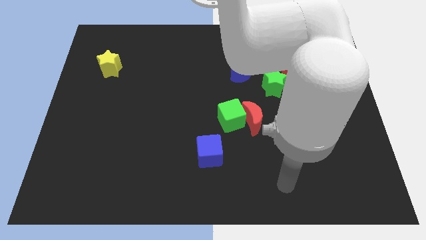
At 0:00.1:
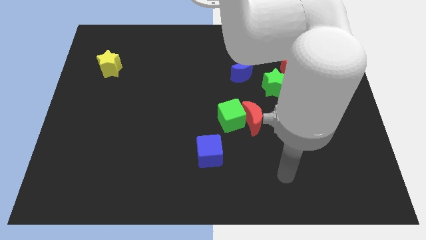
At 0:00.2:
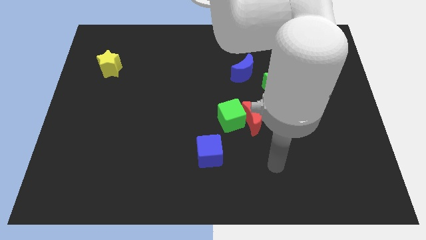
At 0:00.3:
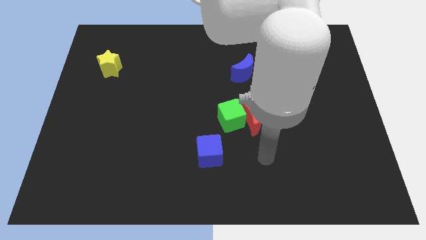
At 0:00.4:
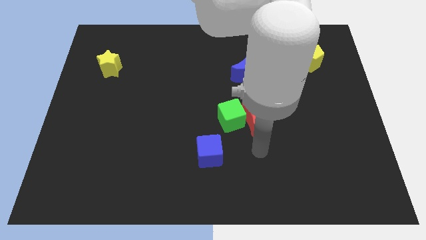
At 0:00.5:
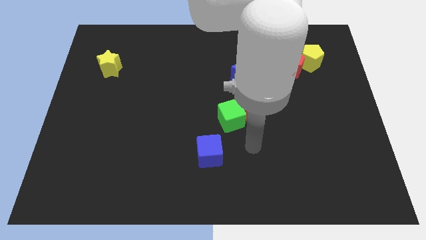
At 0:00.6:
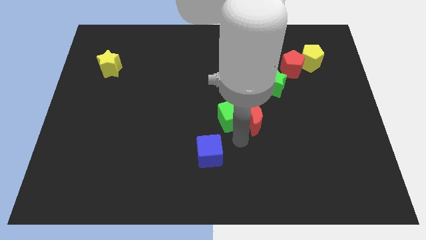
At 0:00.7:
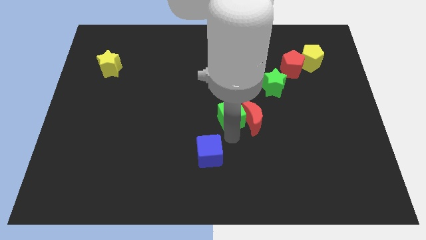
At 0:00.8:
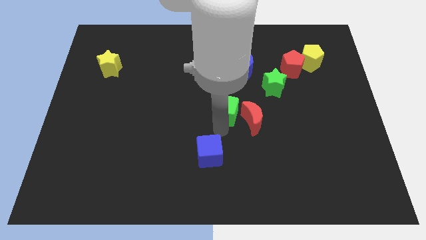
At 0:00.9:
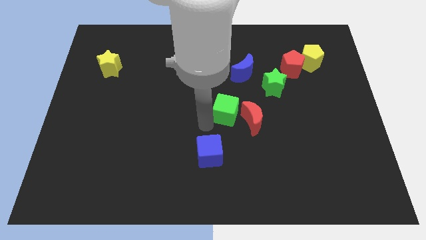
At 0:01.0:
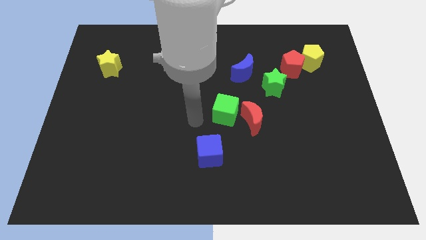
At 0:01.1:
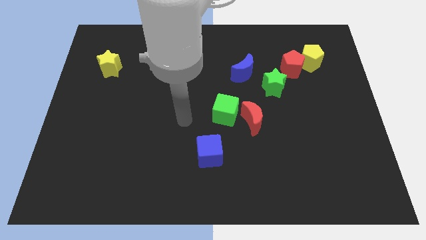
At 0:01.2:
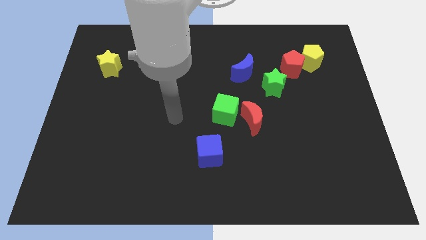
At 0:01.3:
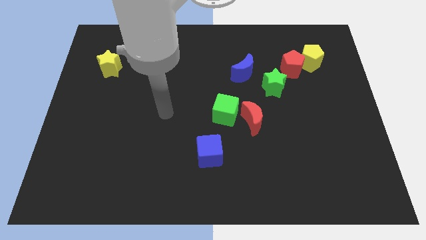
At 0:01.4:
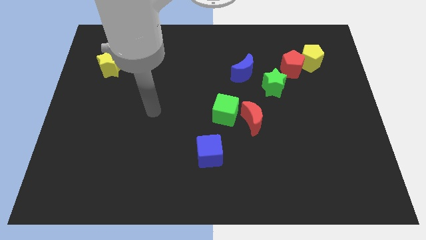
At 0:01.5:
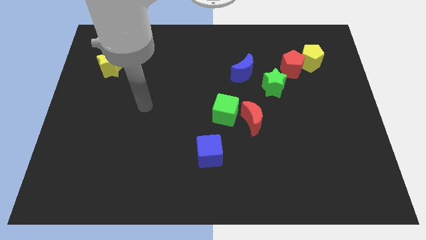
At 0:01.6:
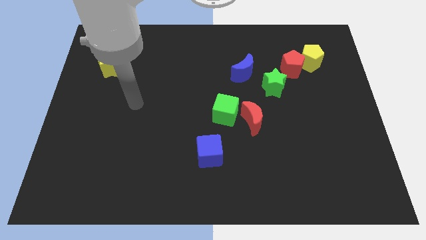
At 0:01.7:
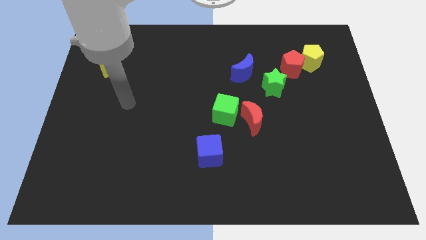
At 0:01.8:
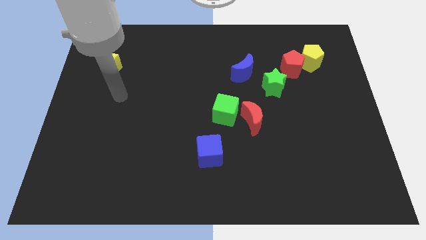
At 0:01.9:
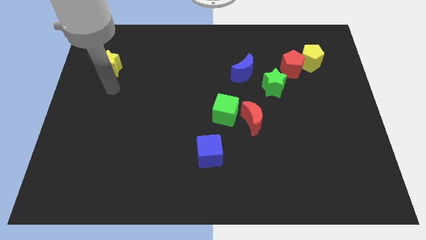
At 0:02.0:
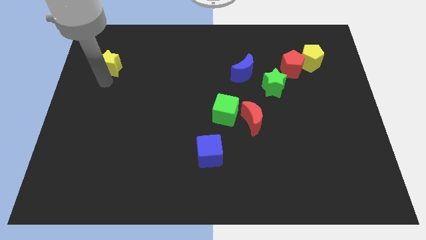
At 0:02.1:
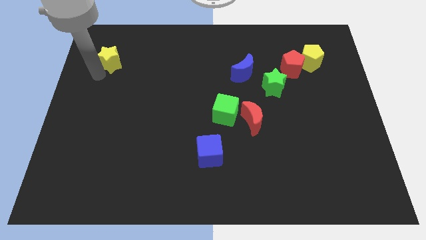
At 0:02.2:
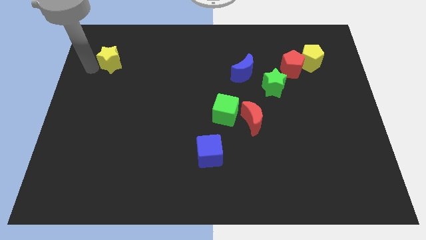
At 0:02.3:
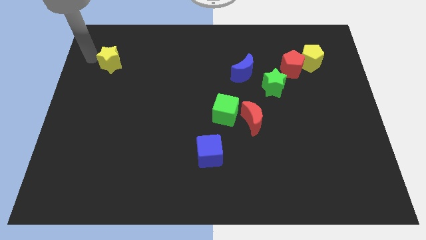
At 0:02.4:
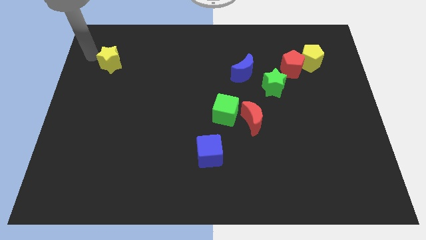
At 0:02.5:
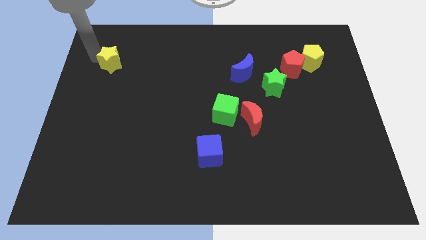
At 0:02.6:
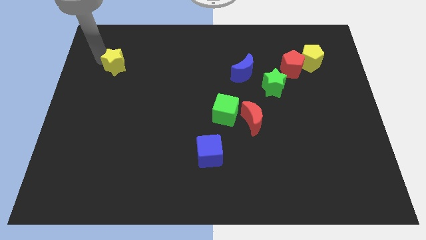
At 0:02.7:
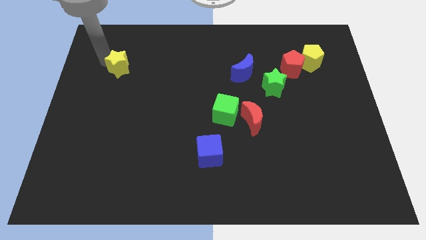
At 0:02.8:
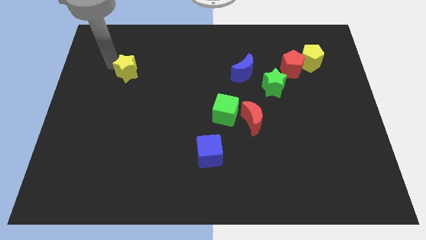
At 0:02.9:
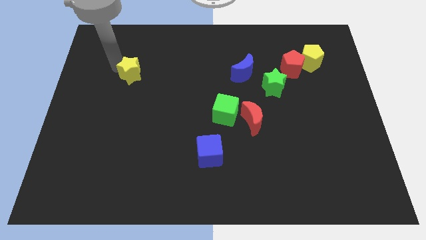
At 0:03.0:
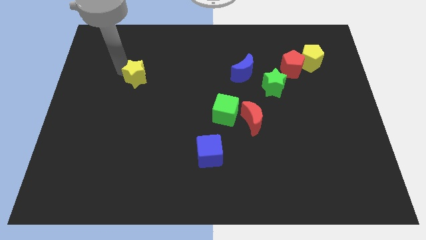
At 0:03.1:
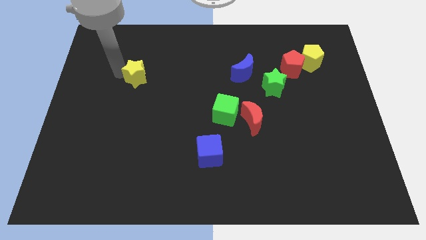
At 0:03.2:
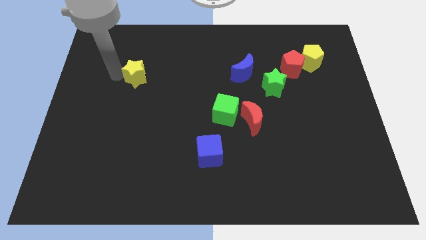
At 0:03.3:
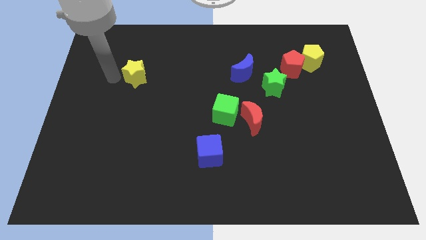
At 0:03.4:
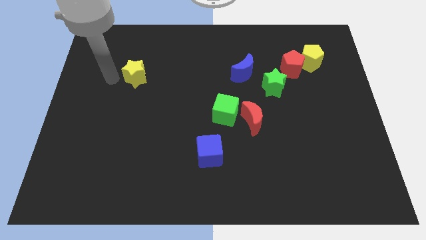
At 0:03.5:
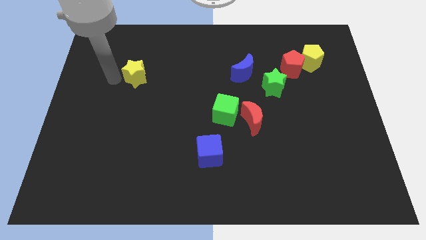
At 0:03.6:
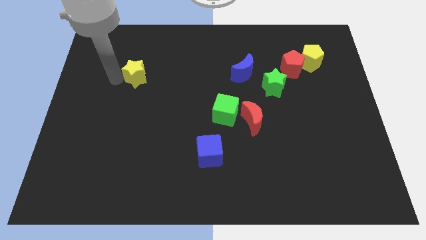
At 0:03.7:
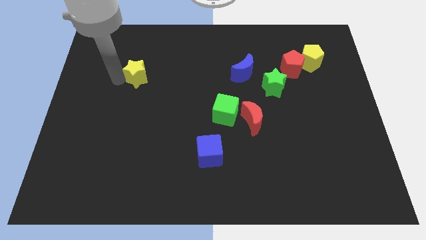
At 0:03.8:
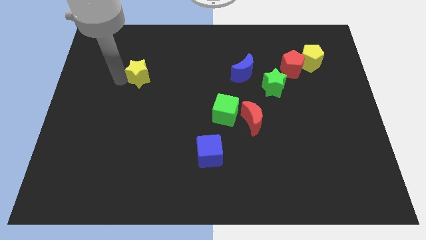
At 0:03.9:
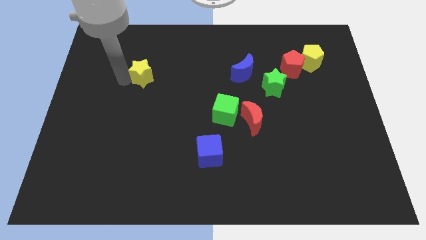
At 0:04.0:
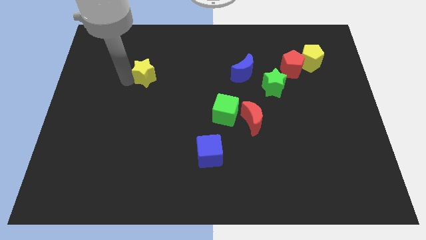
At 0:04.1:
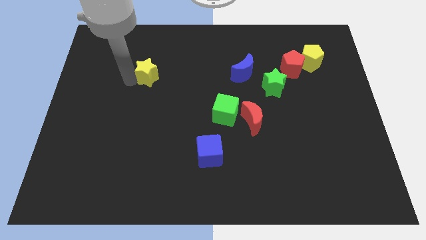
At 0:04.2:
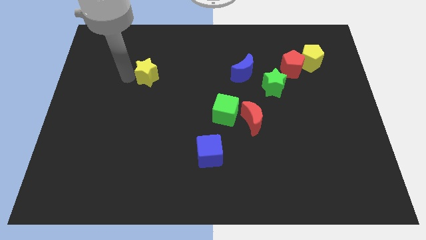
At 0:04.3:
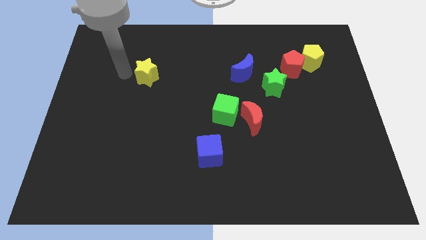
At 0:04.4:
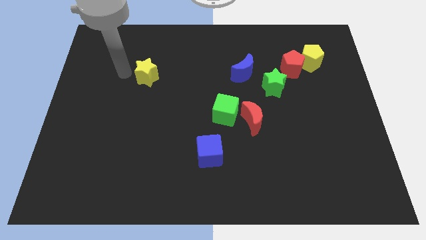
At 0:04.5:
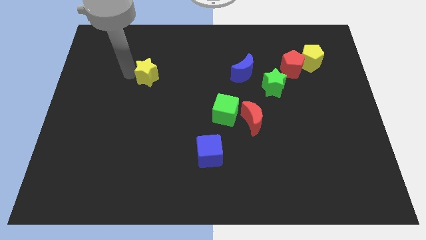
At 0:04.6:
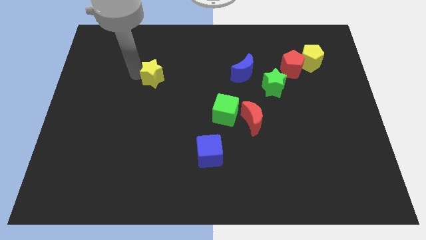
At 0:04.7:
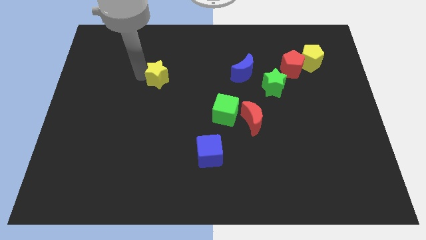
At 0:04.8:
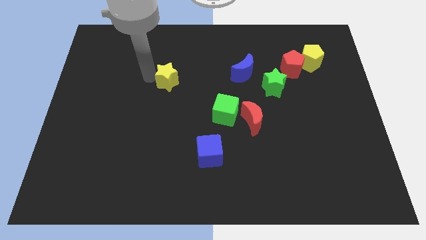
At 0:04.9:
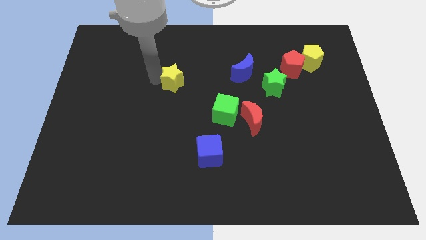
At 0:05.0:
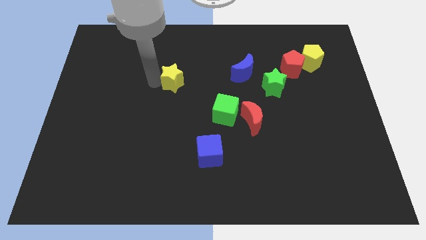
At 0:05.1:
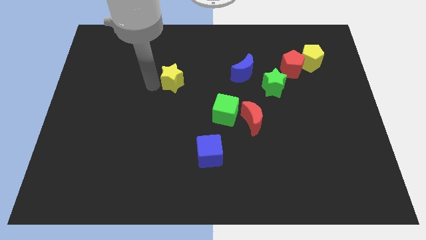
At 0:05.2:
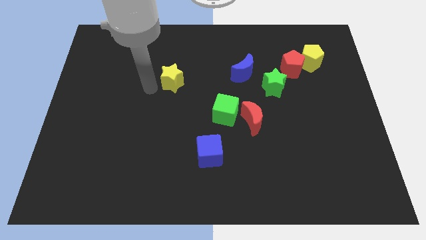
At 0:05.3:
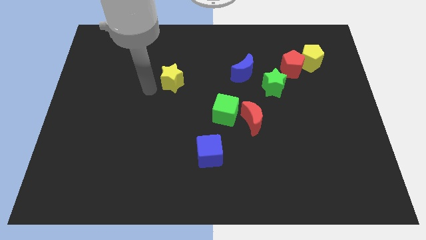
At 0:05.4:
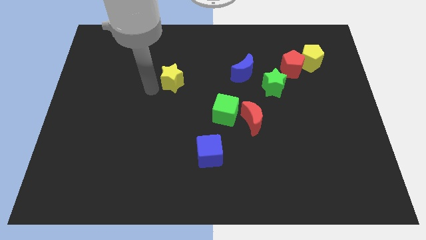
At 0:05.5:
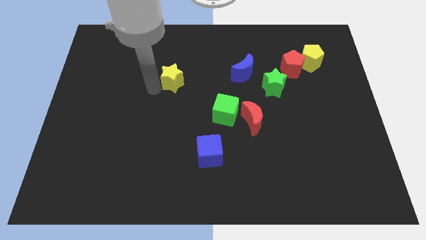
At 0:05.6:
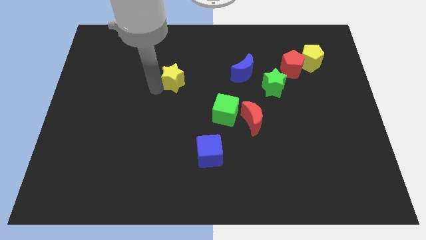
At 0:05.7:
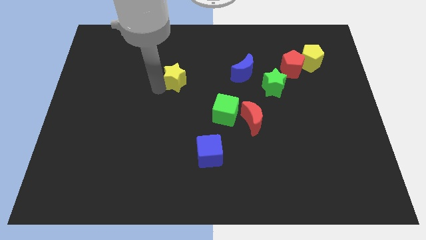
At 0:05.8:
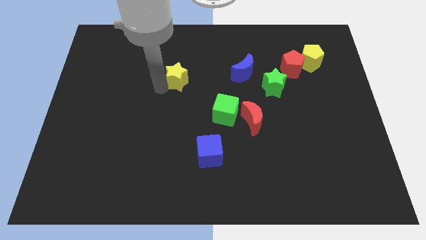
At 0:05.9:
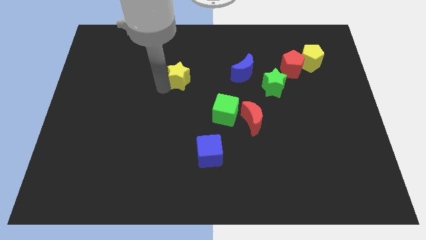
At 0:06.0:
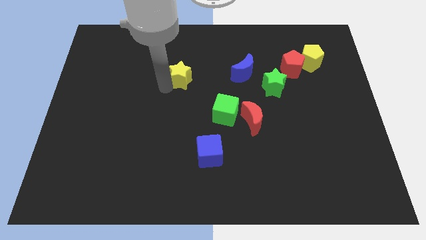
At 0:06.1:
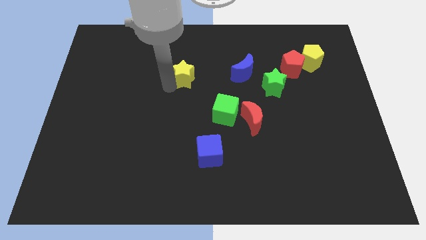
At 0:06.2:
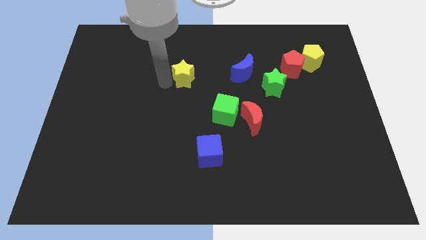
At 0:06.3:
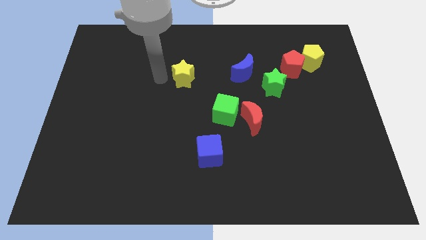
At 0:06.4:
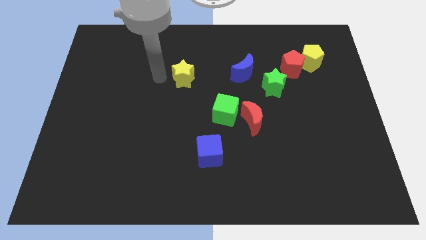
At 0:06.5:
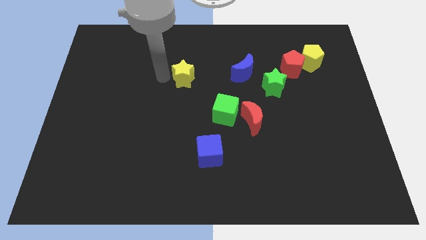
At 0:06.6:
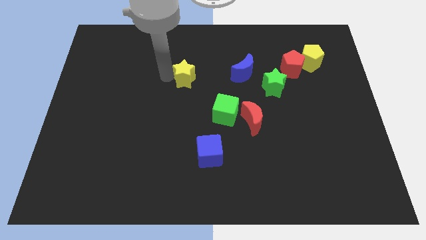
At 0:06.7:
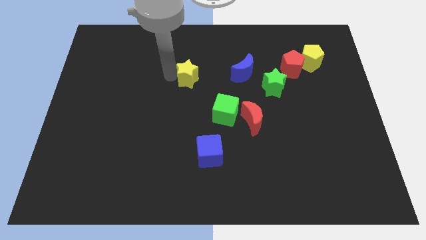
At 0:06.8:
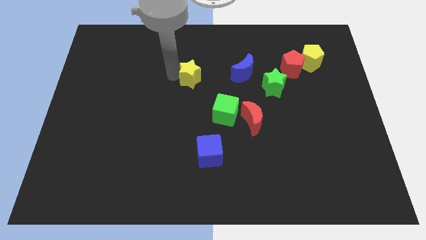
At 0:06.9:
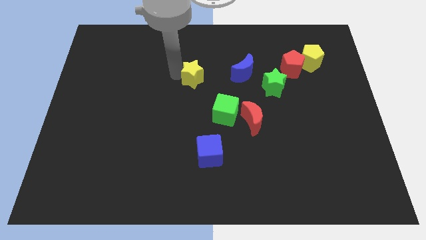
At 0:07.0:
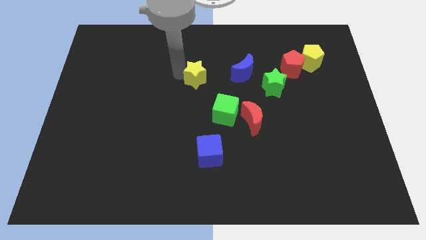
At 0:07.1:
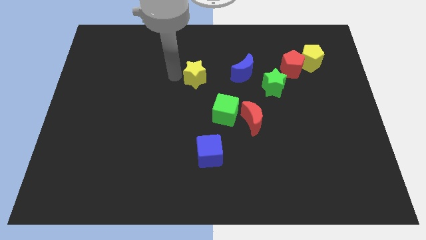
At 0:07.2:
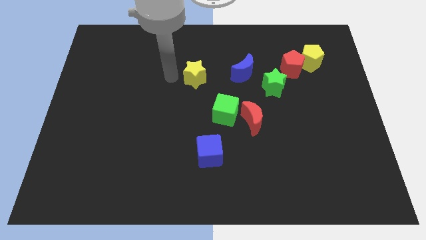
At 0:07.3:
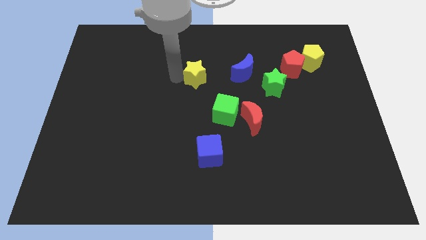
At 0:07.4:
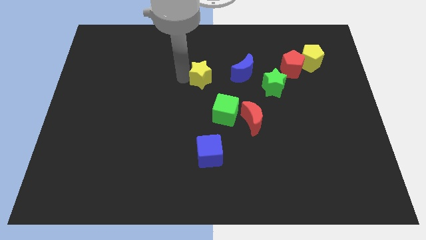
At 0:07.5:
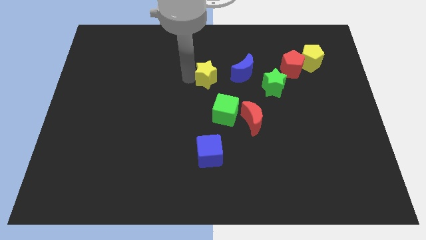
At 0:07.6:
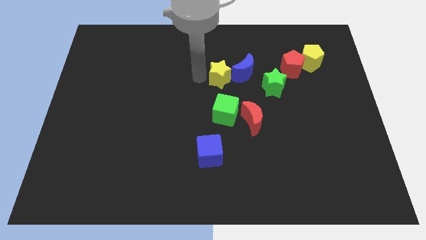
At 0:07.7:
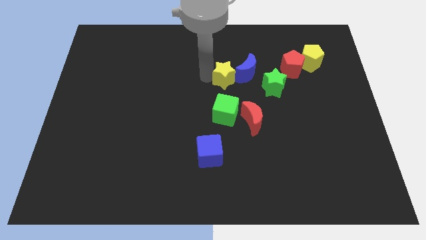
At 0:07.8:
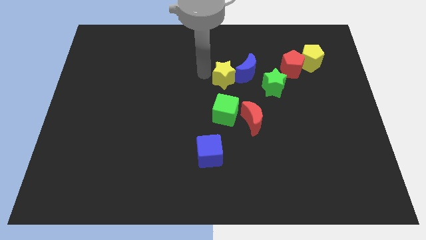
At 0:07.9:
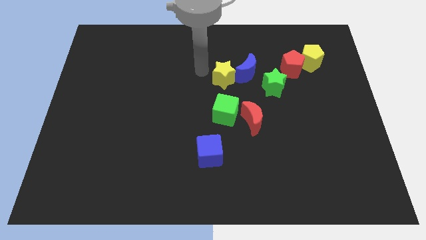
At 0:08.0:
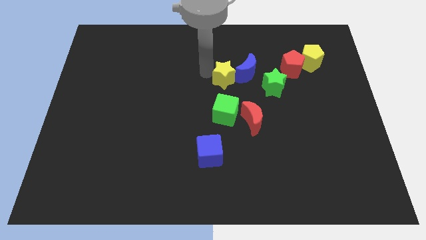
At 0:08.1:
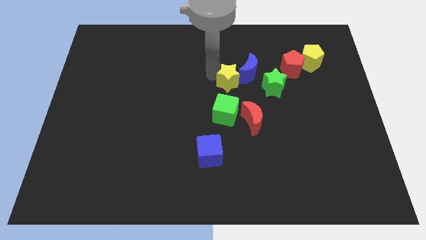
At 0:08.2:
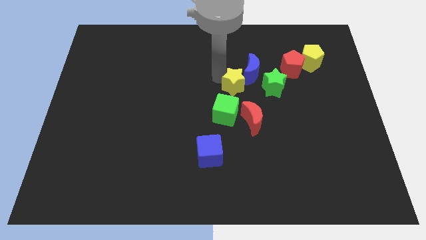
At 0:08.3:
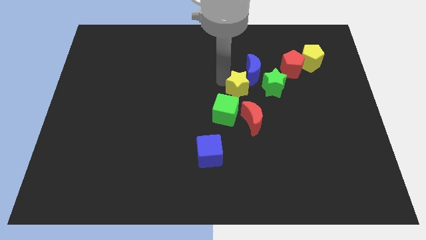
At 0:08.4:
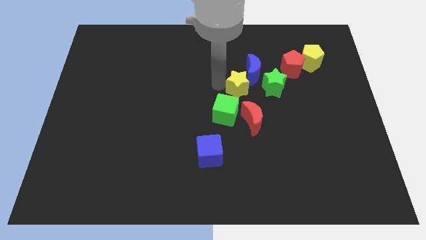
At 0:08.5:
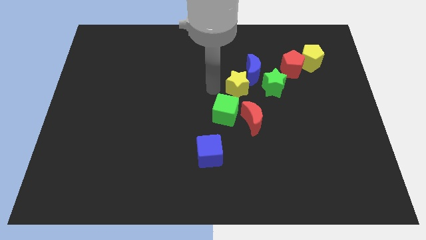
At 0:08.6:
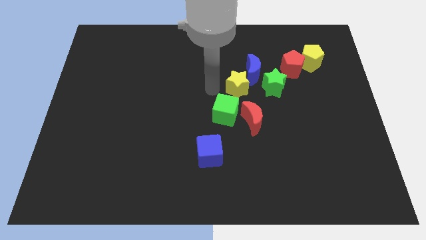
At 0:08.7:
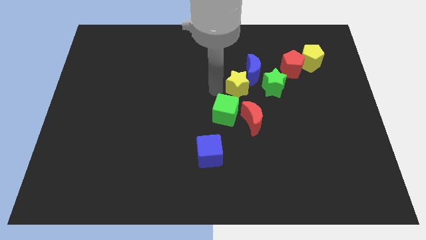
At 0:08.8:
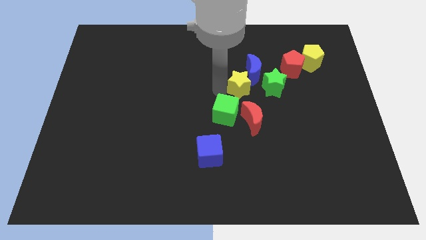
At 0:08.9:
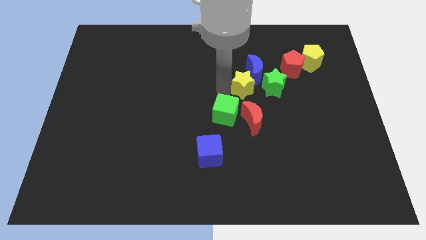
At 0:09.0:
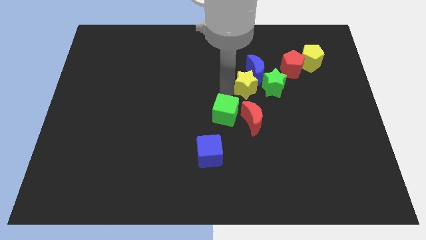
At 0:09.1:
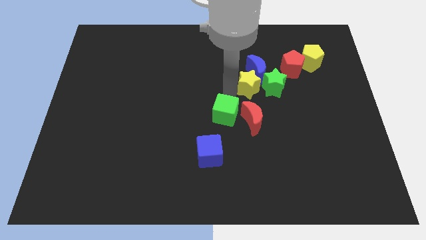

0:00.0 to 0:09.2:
put the yellow star to the green star
